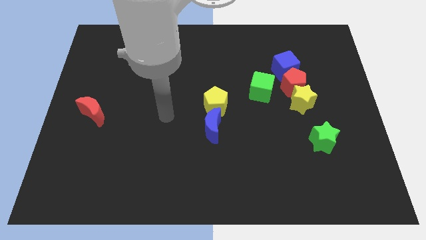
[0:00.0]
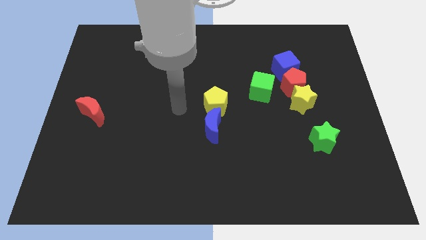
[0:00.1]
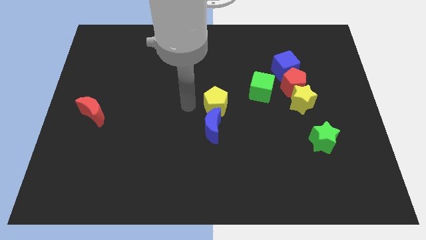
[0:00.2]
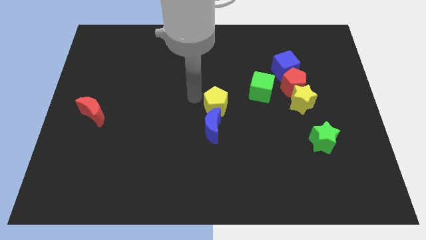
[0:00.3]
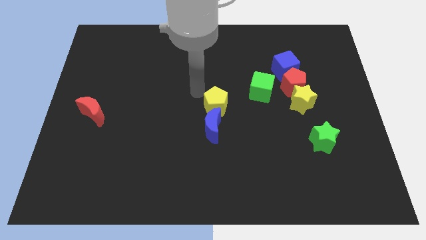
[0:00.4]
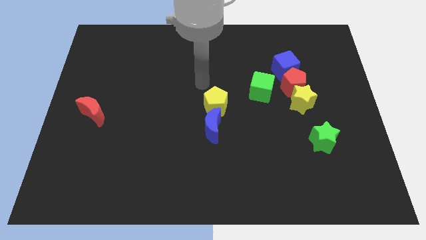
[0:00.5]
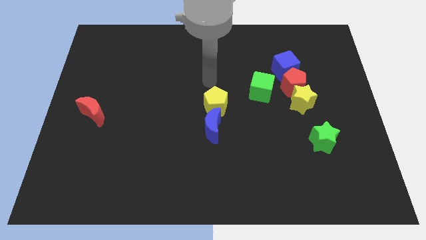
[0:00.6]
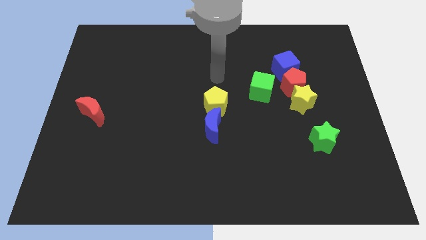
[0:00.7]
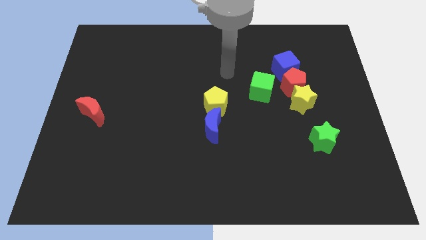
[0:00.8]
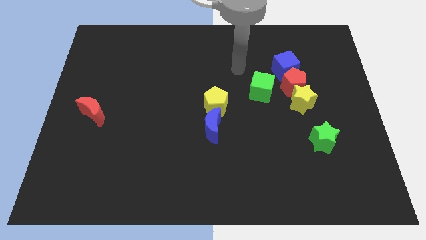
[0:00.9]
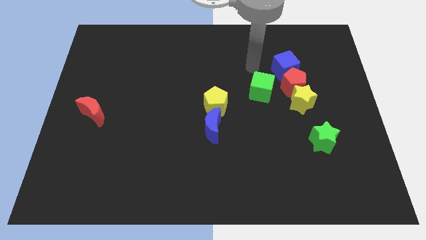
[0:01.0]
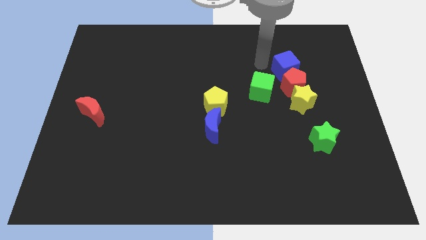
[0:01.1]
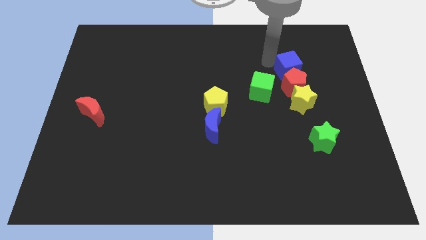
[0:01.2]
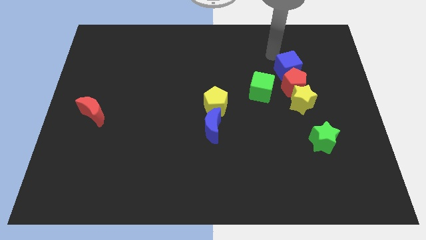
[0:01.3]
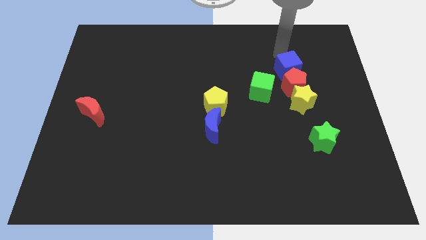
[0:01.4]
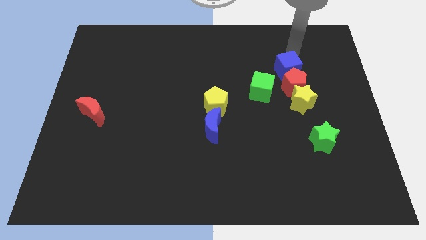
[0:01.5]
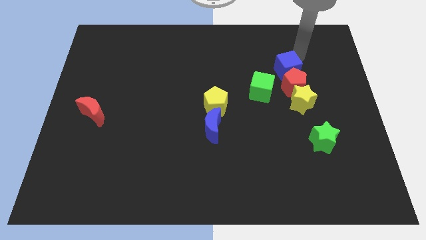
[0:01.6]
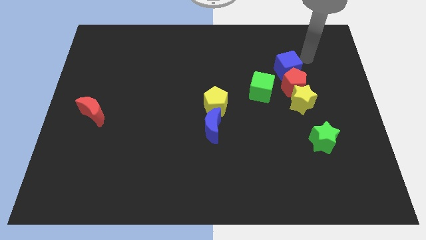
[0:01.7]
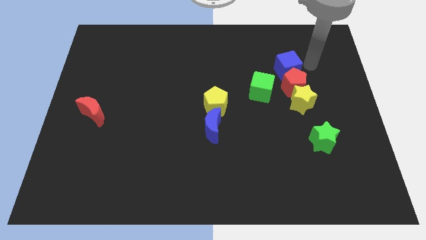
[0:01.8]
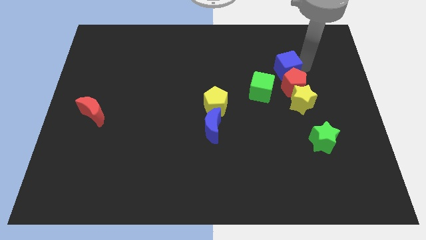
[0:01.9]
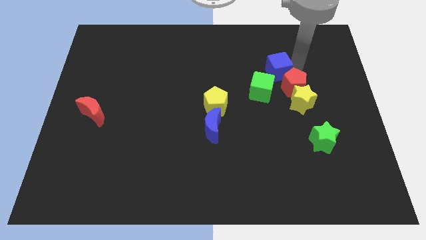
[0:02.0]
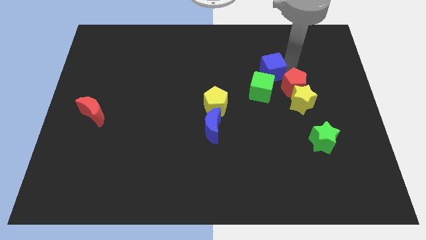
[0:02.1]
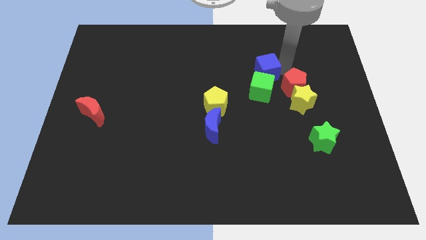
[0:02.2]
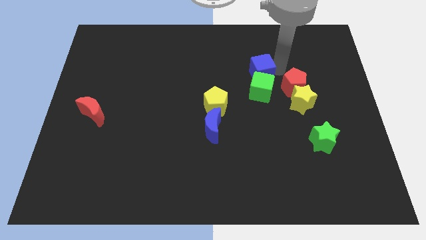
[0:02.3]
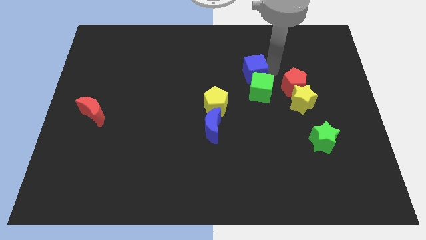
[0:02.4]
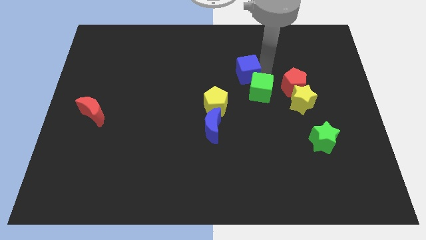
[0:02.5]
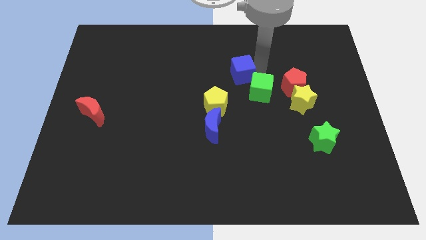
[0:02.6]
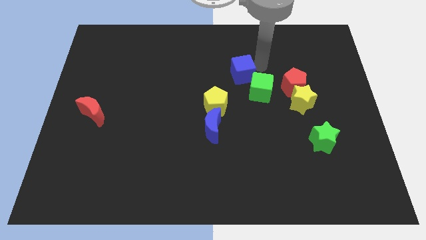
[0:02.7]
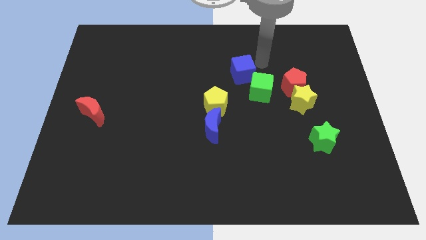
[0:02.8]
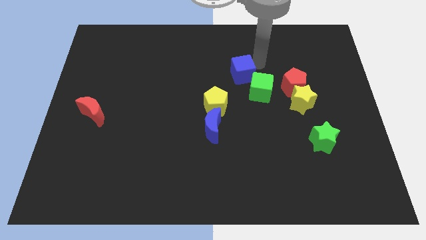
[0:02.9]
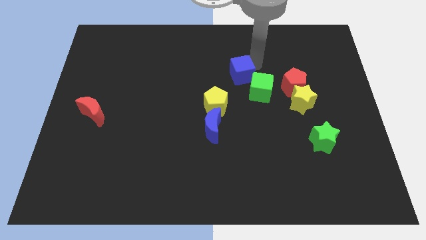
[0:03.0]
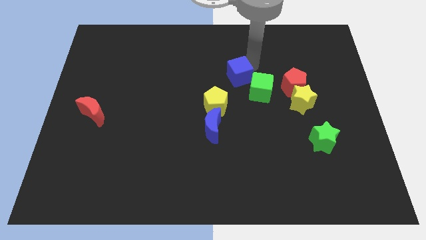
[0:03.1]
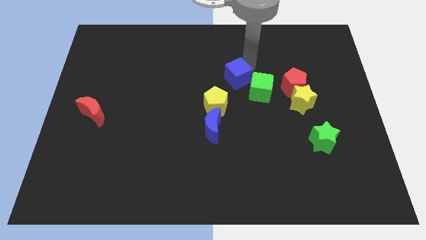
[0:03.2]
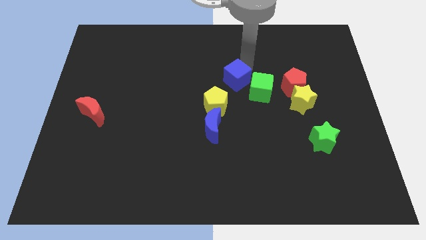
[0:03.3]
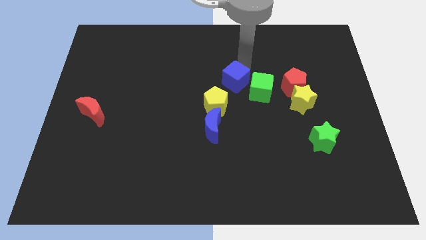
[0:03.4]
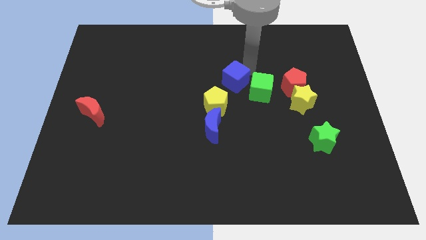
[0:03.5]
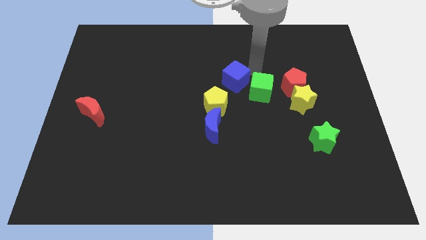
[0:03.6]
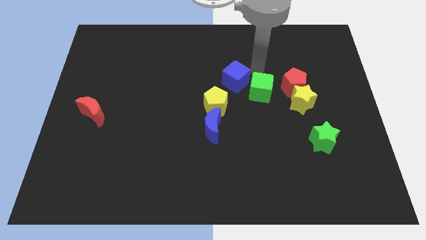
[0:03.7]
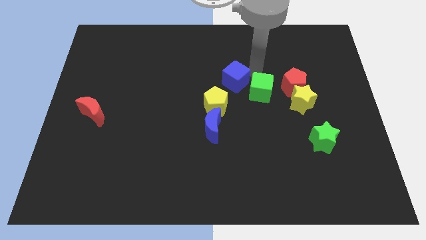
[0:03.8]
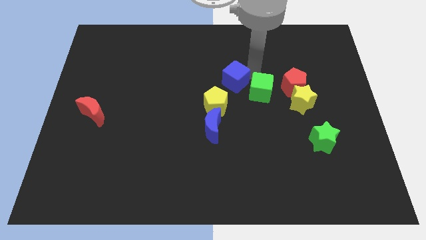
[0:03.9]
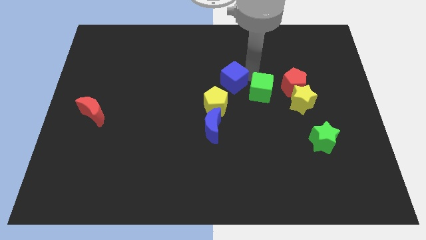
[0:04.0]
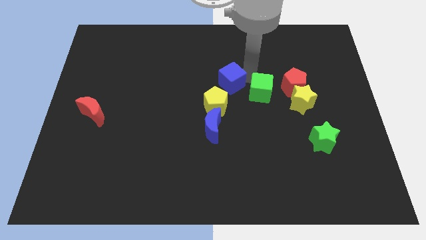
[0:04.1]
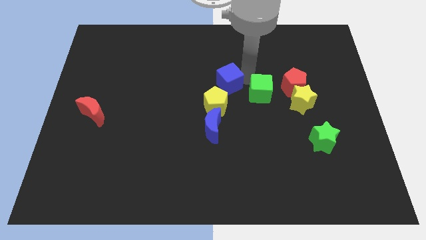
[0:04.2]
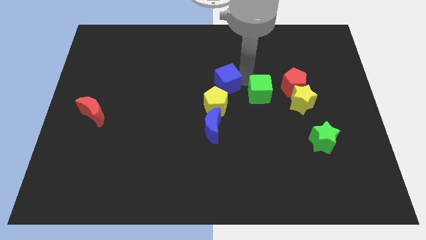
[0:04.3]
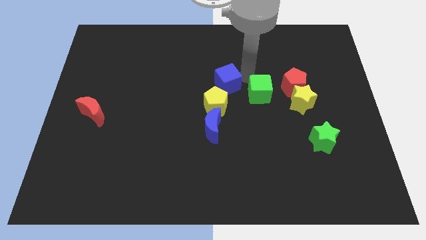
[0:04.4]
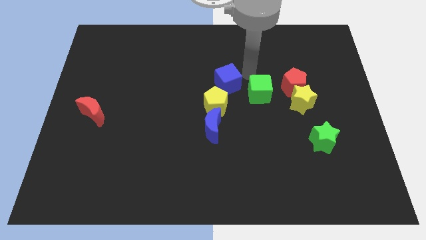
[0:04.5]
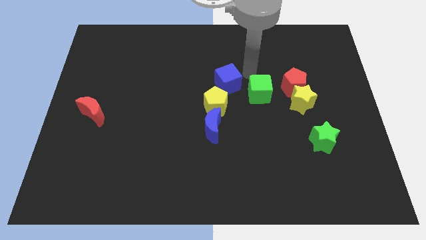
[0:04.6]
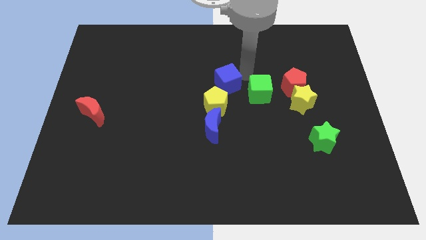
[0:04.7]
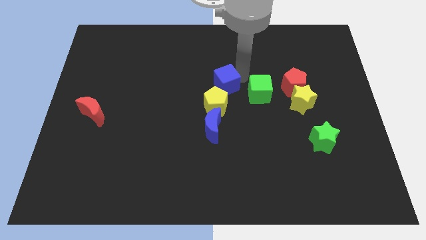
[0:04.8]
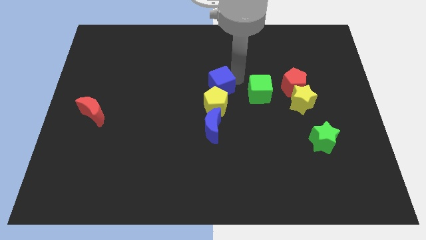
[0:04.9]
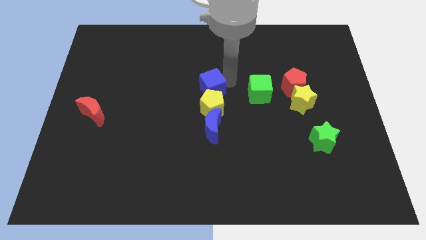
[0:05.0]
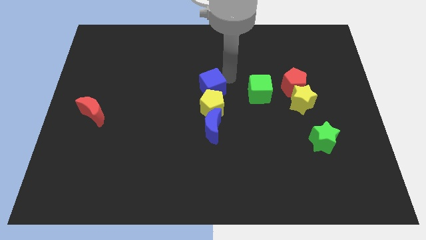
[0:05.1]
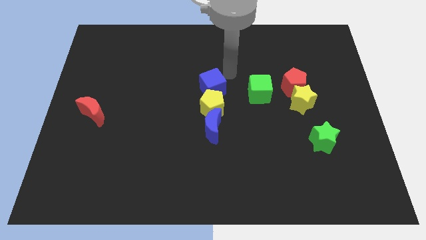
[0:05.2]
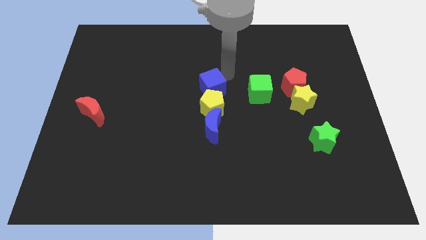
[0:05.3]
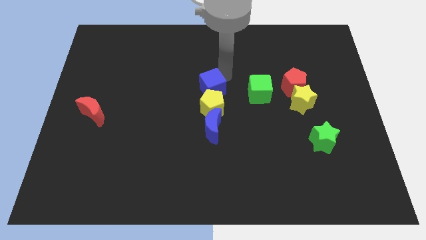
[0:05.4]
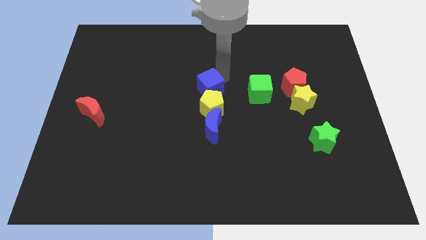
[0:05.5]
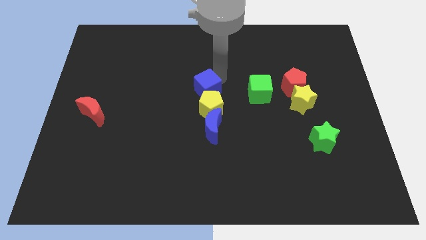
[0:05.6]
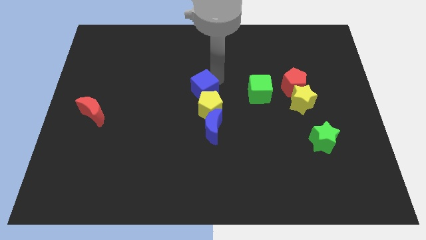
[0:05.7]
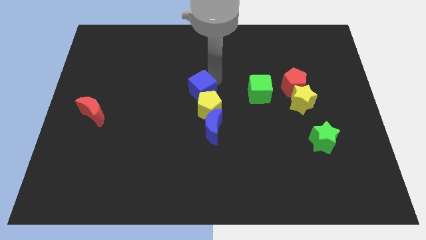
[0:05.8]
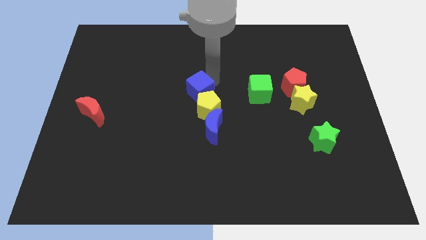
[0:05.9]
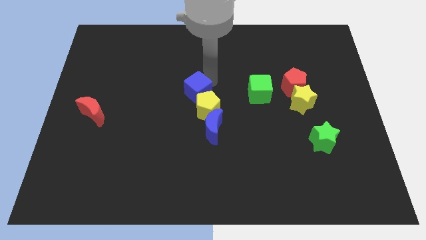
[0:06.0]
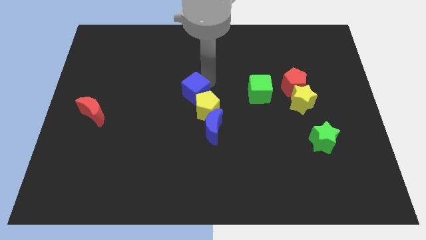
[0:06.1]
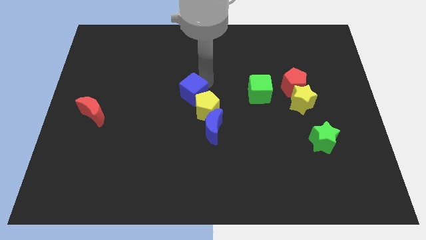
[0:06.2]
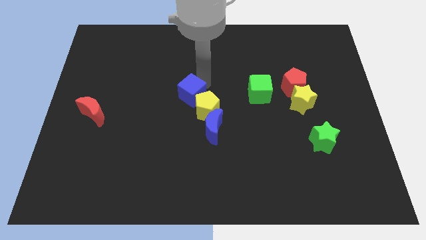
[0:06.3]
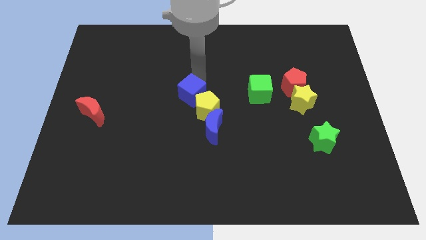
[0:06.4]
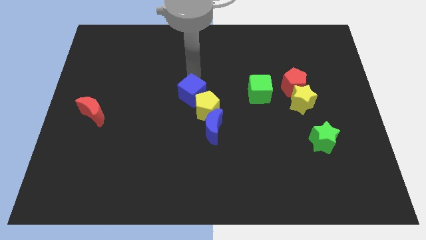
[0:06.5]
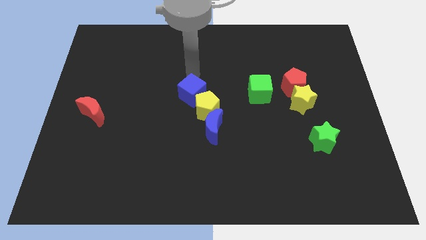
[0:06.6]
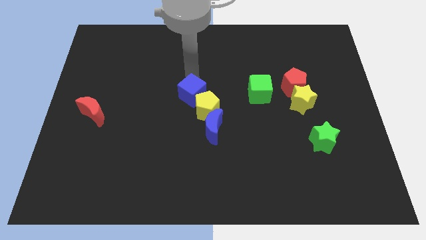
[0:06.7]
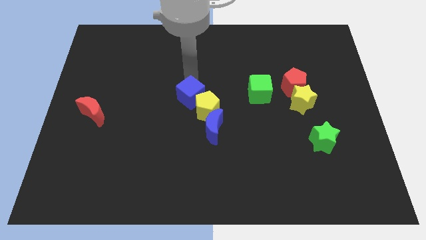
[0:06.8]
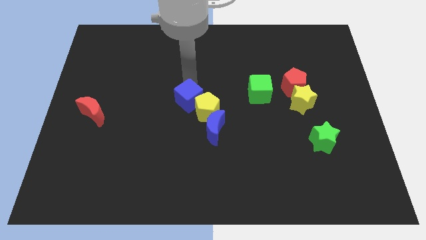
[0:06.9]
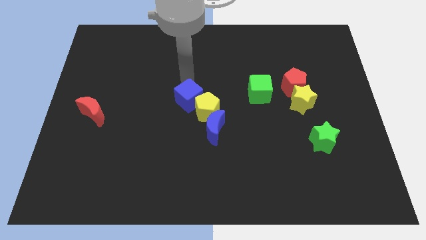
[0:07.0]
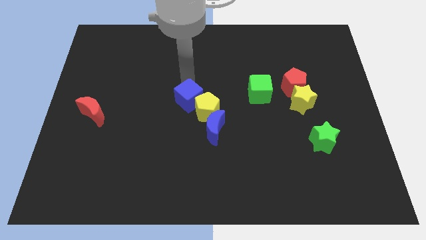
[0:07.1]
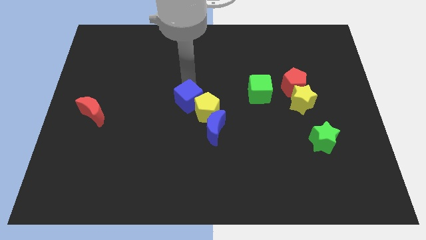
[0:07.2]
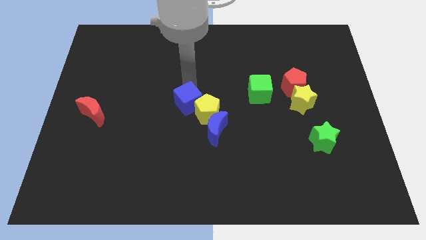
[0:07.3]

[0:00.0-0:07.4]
slide the blue cube down and then left

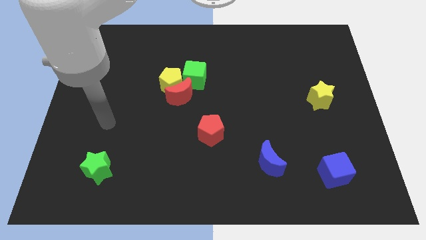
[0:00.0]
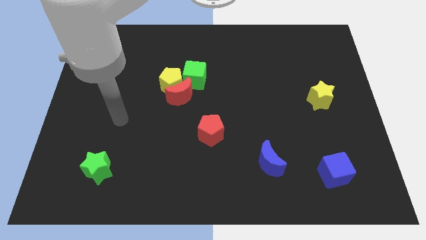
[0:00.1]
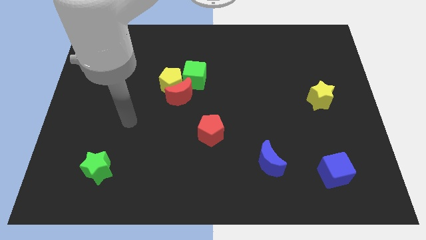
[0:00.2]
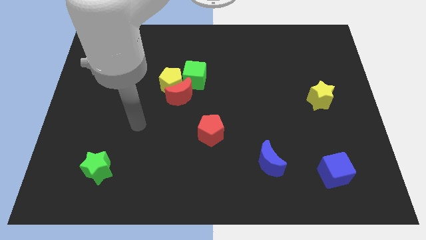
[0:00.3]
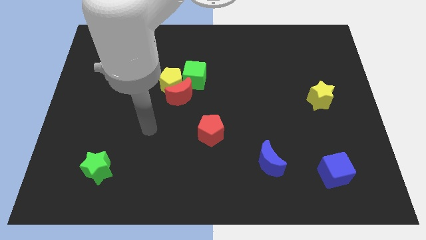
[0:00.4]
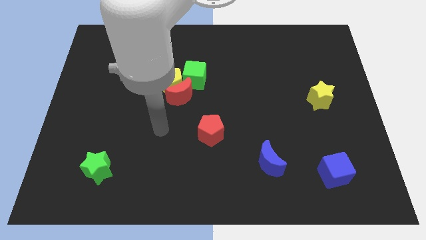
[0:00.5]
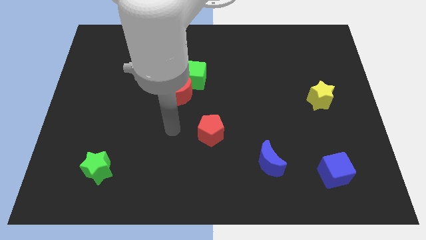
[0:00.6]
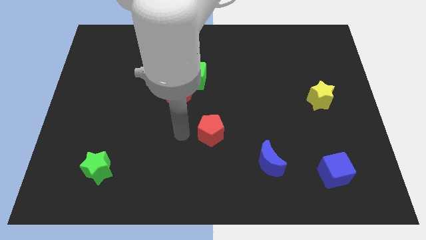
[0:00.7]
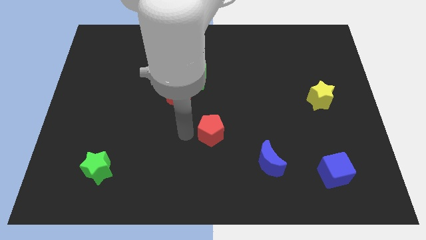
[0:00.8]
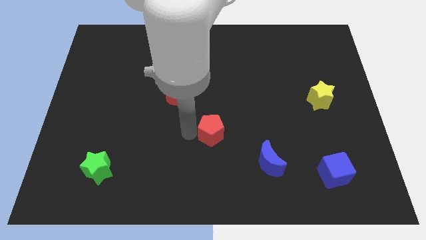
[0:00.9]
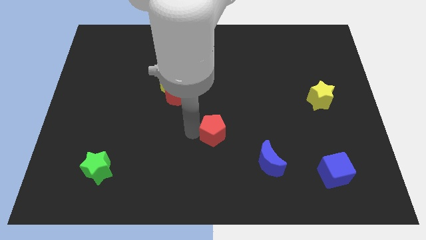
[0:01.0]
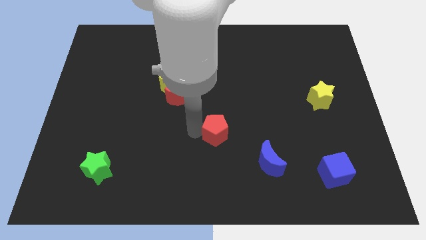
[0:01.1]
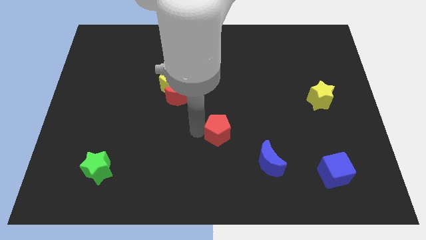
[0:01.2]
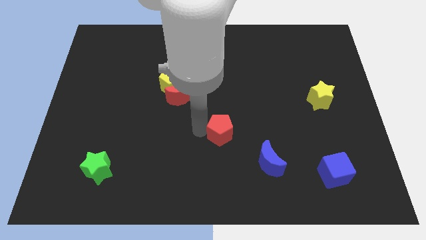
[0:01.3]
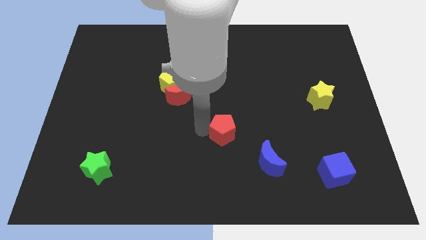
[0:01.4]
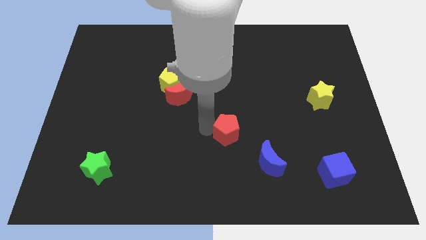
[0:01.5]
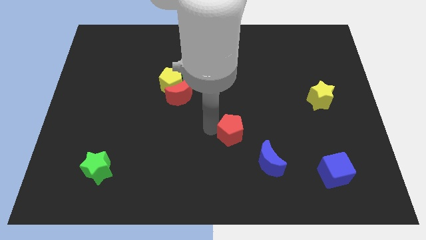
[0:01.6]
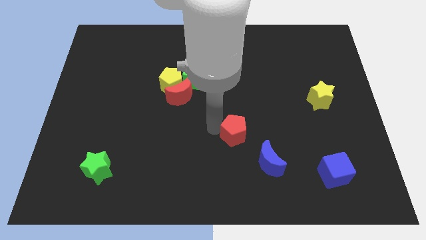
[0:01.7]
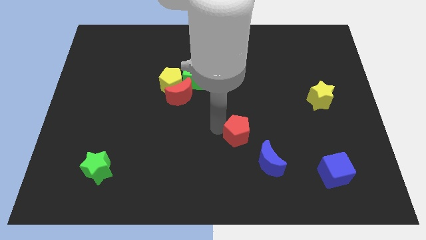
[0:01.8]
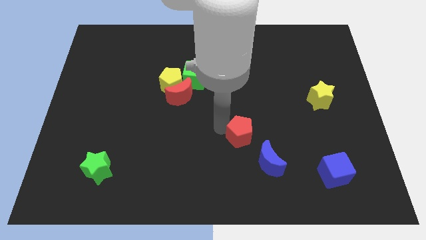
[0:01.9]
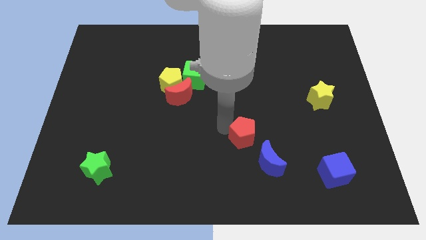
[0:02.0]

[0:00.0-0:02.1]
move the red pentagon to the right somewhat
